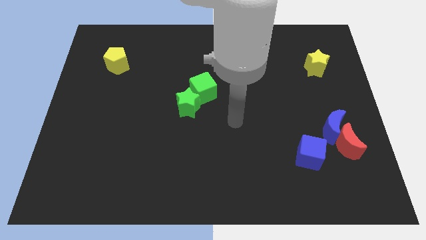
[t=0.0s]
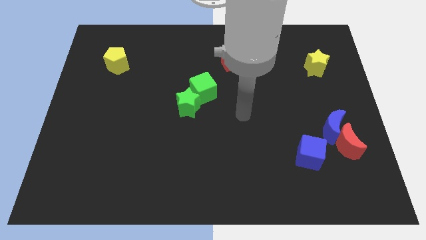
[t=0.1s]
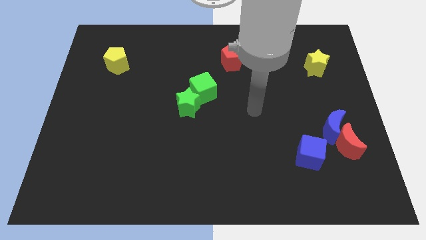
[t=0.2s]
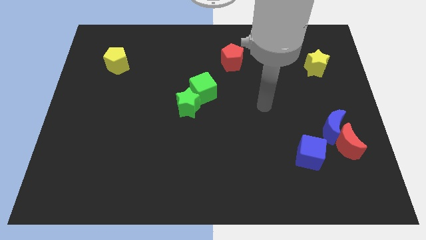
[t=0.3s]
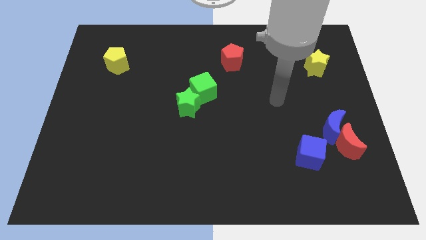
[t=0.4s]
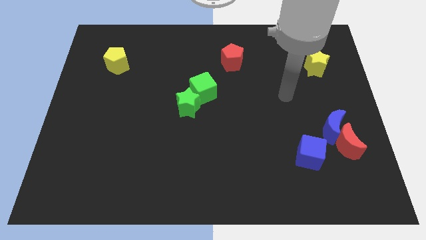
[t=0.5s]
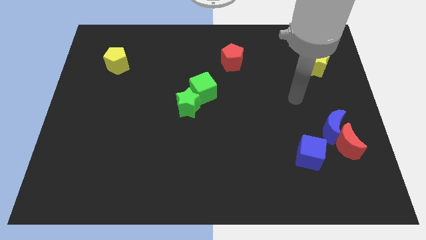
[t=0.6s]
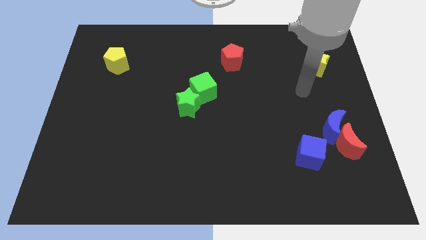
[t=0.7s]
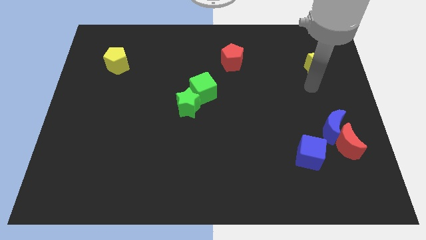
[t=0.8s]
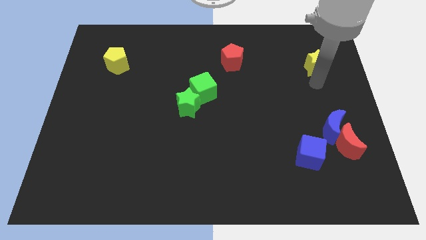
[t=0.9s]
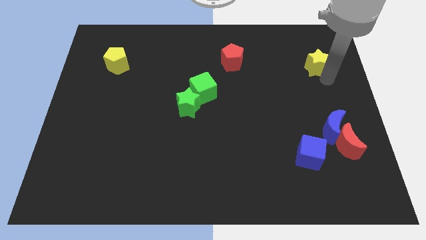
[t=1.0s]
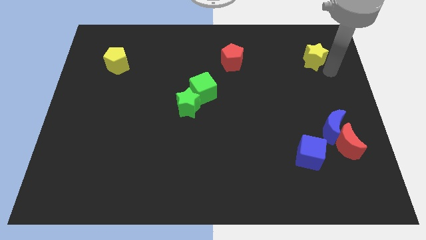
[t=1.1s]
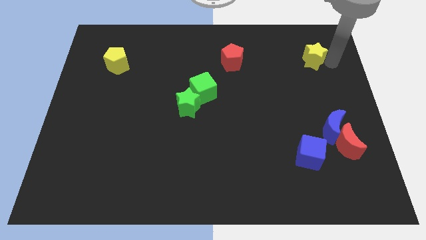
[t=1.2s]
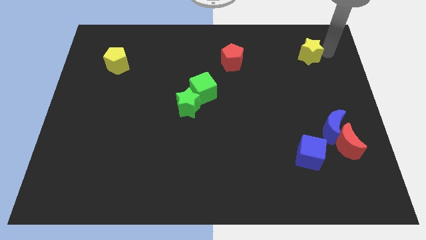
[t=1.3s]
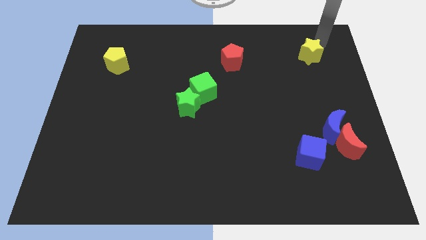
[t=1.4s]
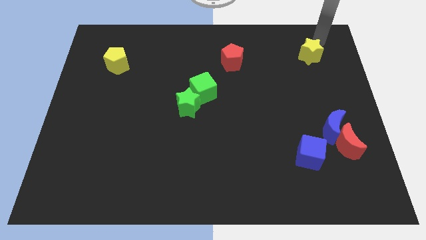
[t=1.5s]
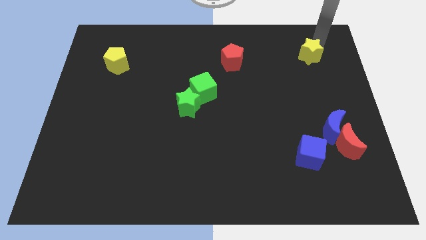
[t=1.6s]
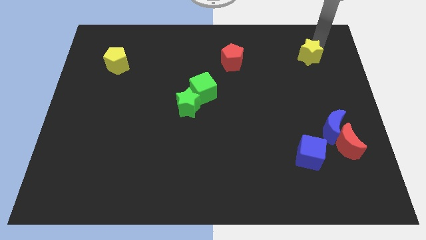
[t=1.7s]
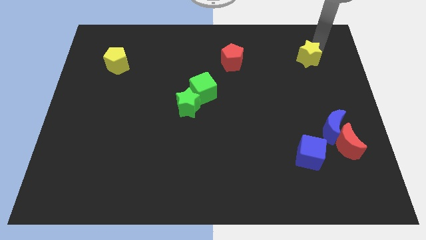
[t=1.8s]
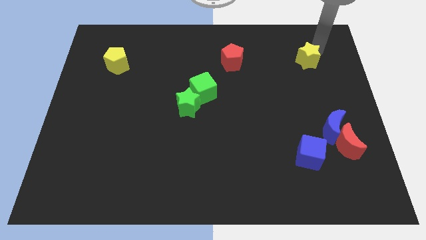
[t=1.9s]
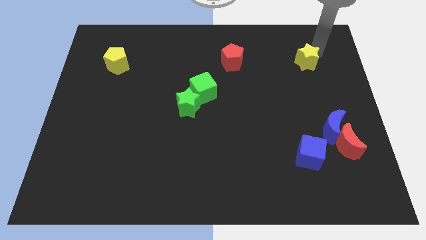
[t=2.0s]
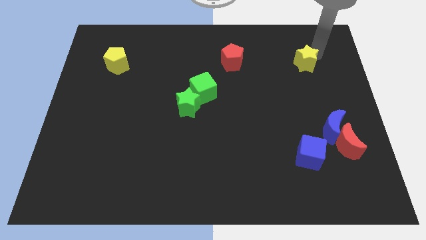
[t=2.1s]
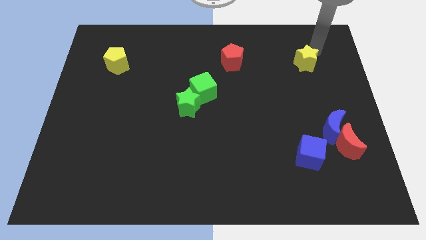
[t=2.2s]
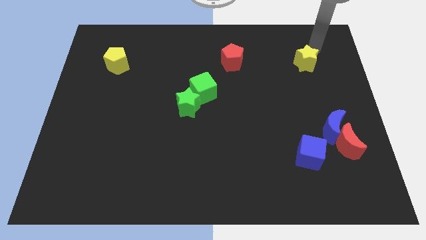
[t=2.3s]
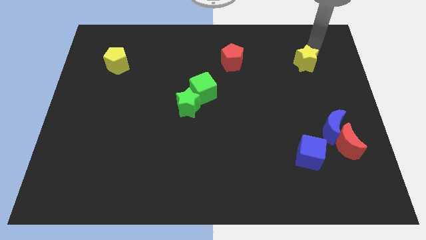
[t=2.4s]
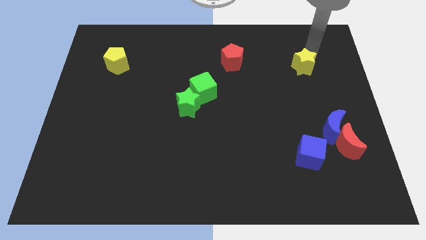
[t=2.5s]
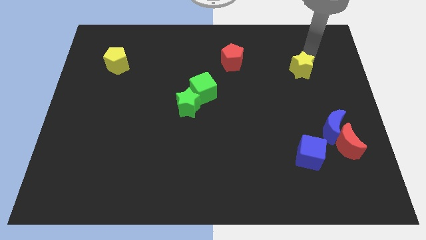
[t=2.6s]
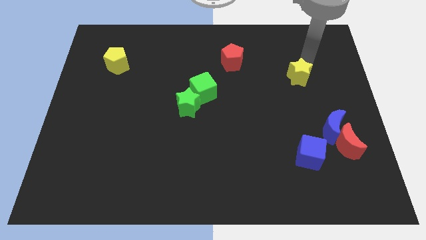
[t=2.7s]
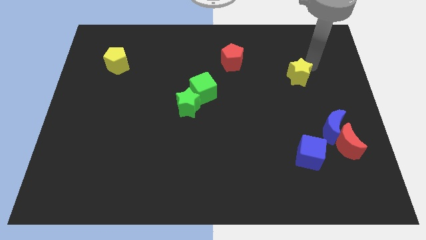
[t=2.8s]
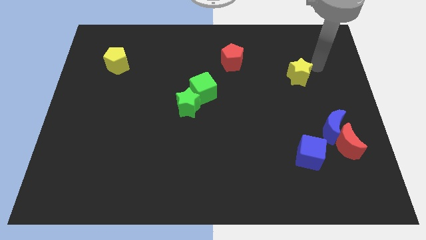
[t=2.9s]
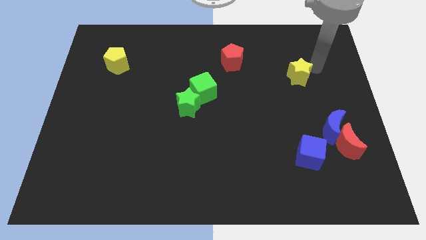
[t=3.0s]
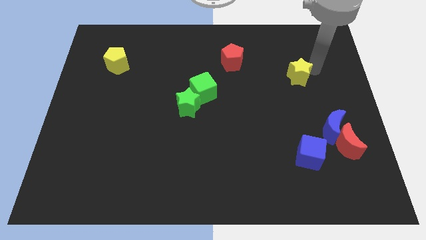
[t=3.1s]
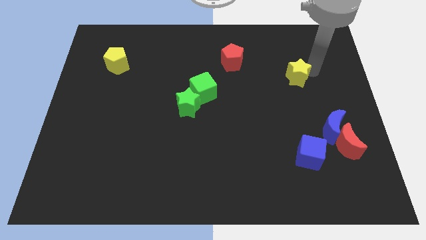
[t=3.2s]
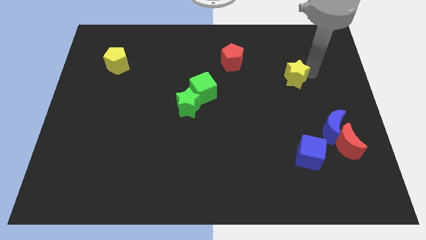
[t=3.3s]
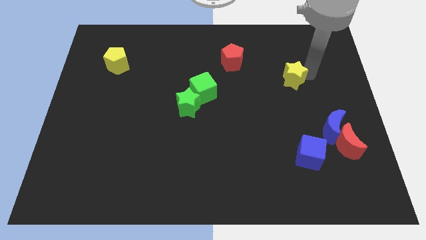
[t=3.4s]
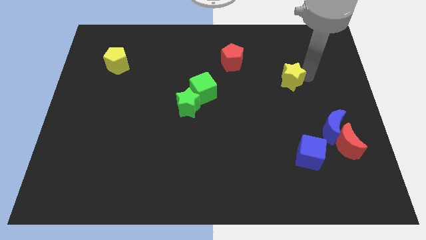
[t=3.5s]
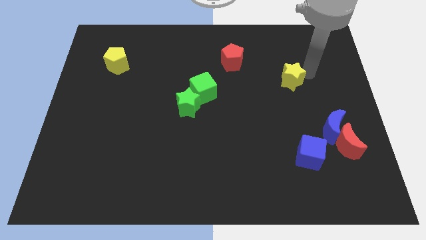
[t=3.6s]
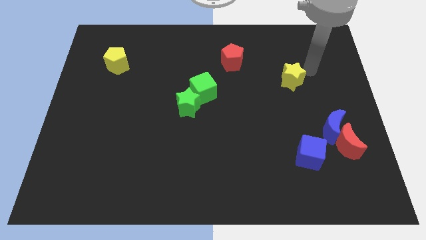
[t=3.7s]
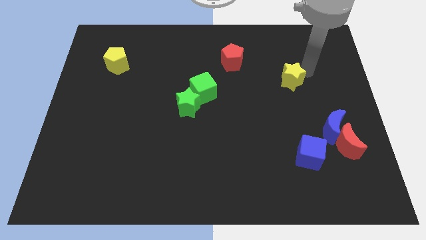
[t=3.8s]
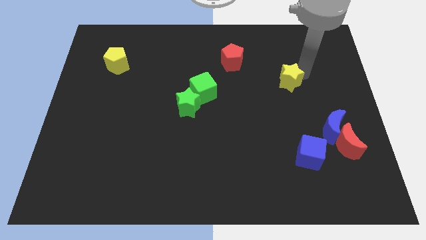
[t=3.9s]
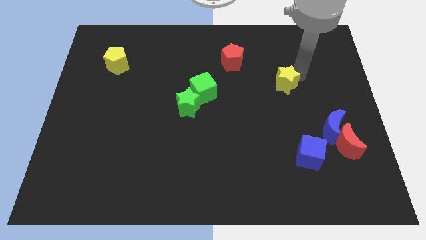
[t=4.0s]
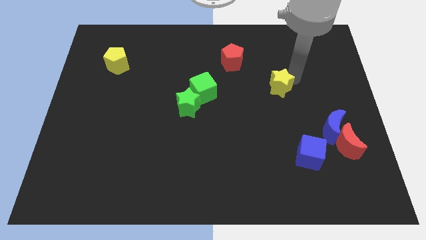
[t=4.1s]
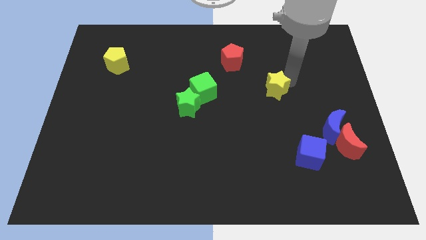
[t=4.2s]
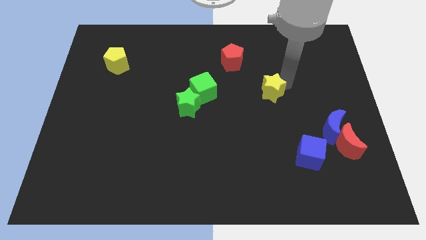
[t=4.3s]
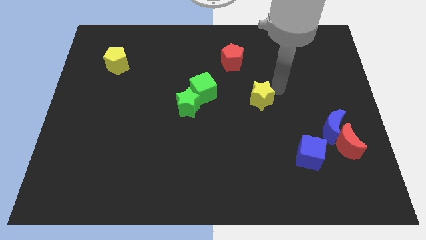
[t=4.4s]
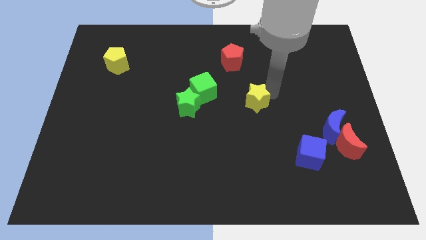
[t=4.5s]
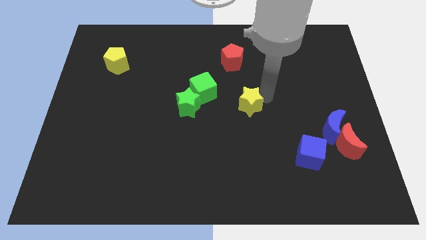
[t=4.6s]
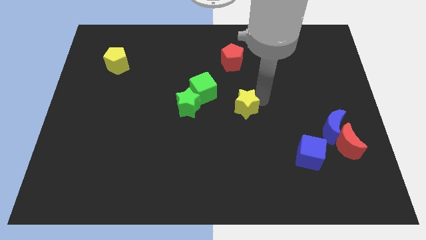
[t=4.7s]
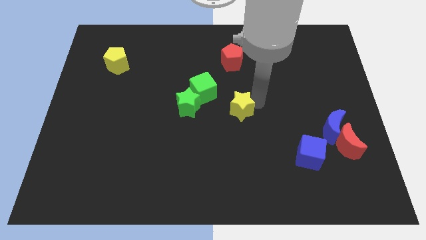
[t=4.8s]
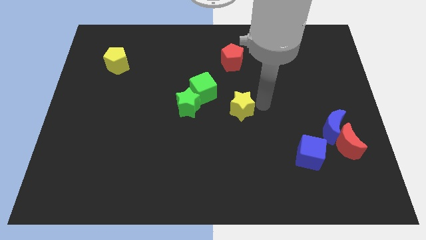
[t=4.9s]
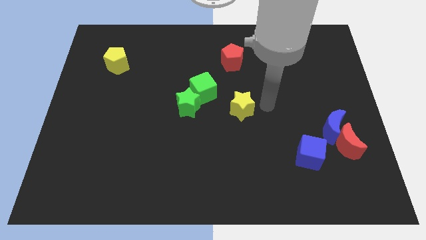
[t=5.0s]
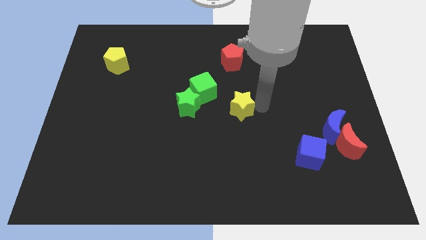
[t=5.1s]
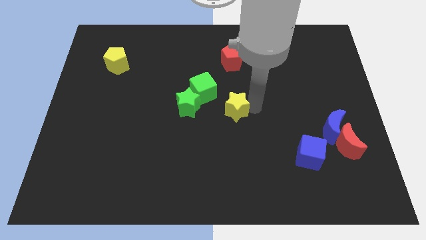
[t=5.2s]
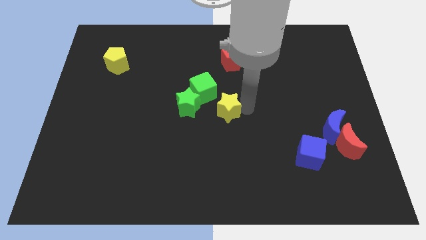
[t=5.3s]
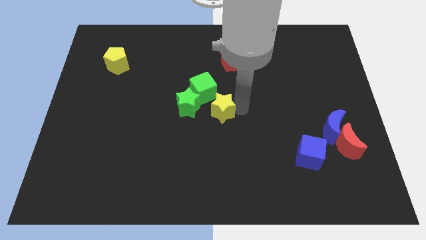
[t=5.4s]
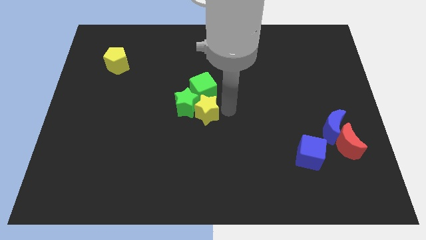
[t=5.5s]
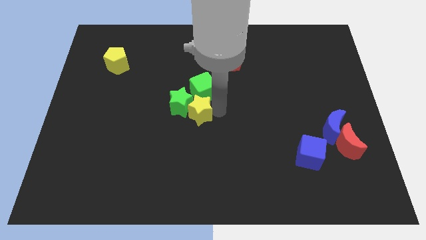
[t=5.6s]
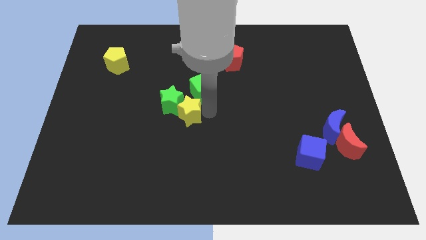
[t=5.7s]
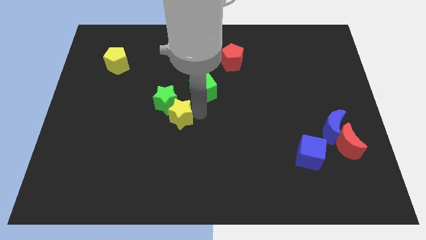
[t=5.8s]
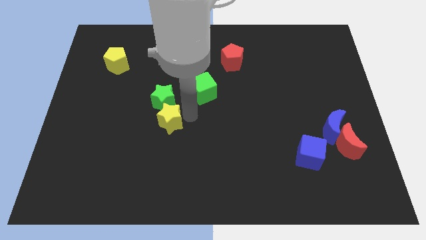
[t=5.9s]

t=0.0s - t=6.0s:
move the yellow star to the bottom left side of the green star

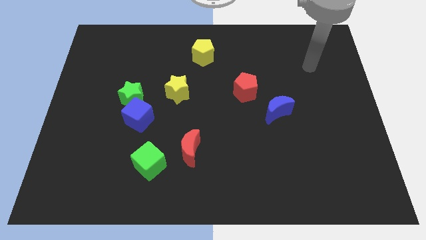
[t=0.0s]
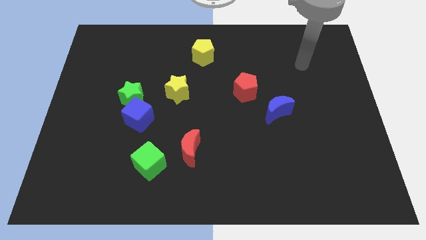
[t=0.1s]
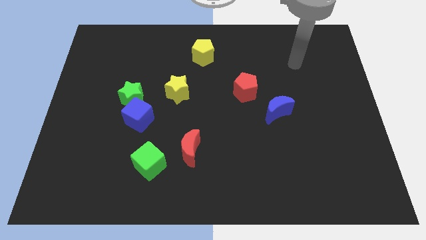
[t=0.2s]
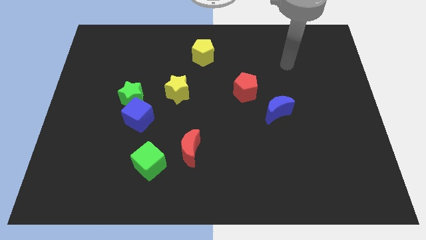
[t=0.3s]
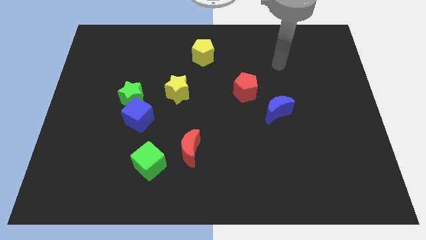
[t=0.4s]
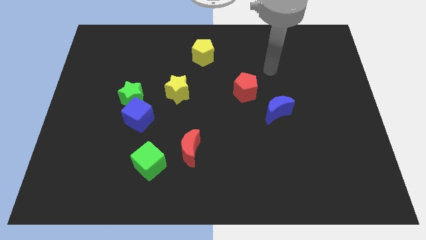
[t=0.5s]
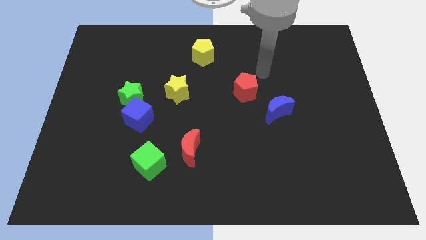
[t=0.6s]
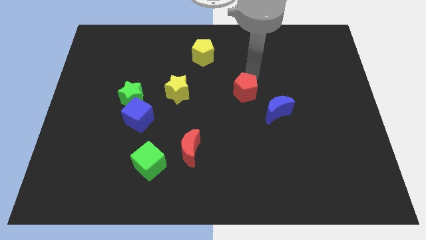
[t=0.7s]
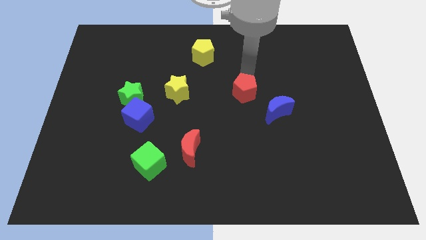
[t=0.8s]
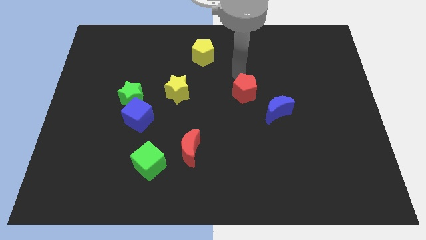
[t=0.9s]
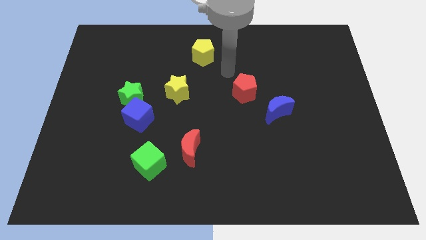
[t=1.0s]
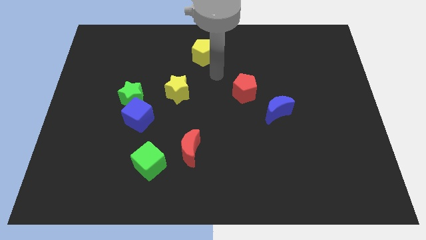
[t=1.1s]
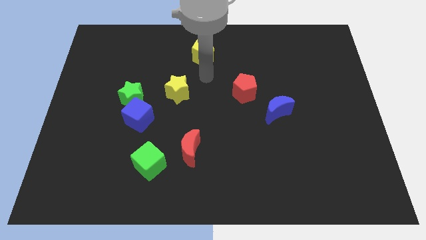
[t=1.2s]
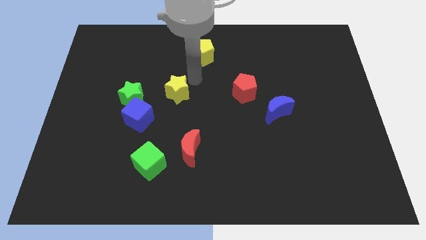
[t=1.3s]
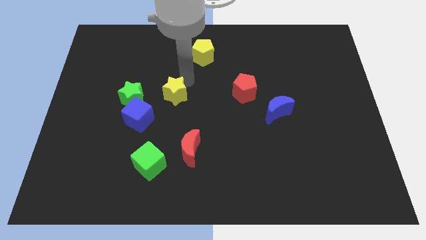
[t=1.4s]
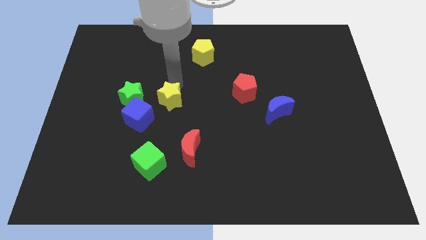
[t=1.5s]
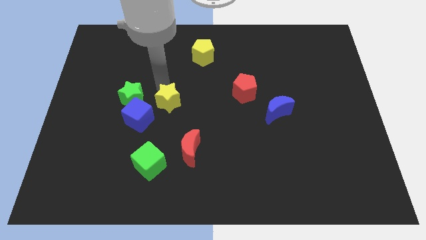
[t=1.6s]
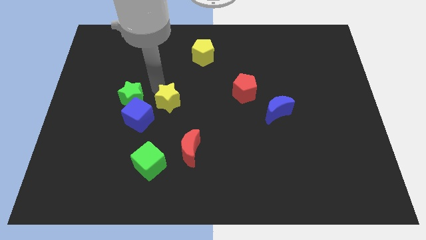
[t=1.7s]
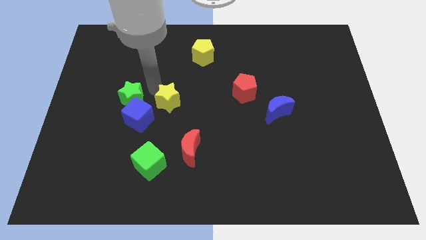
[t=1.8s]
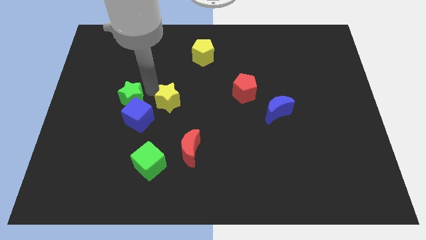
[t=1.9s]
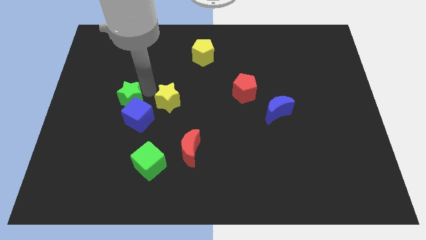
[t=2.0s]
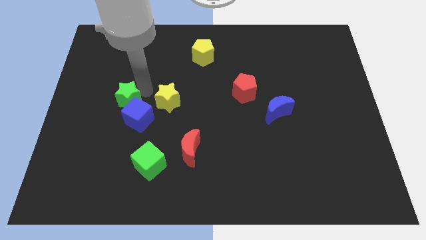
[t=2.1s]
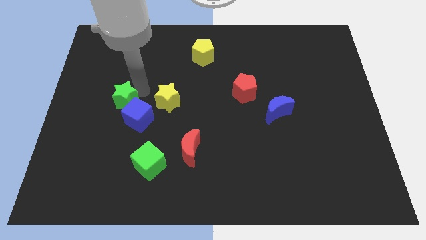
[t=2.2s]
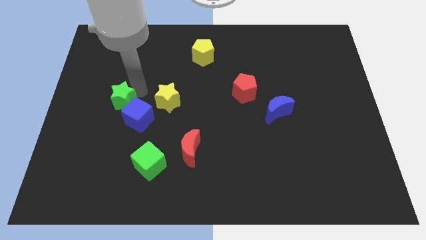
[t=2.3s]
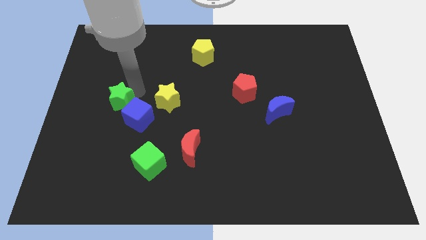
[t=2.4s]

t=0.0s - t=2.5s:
slide the green star left of the blue cube
